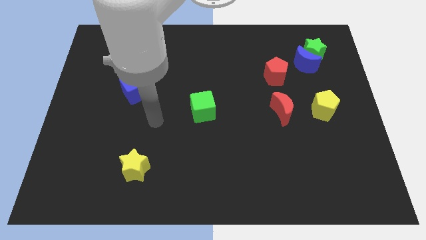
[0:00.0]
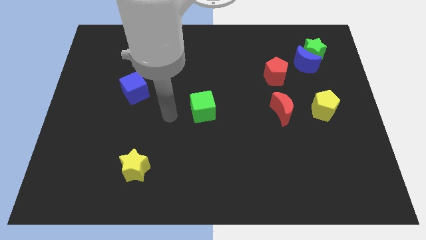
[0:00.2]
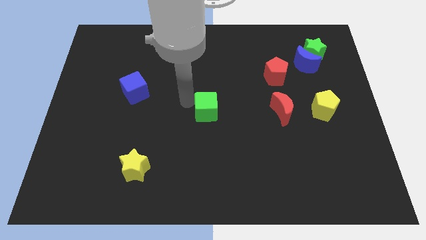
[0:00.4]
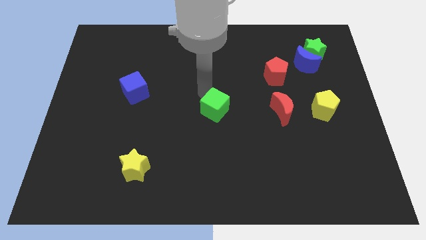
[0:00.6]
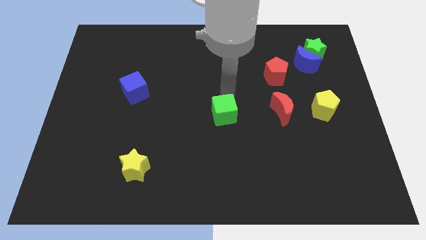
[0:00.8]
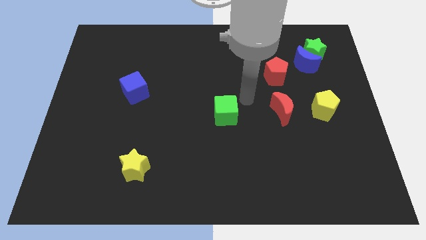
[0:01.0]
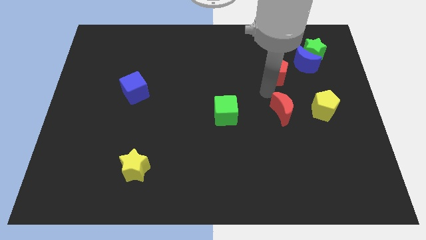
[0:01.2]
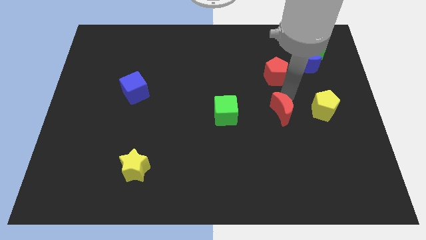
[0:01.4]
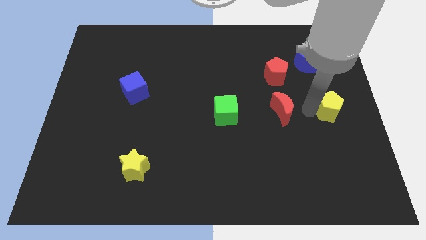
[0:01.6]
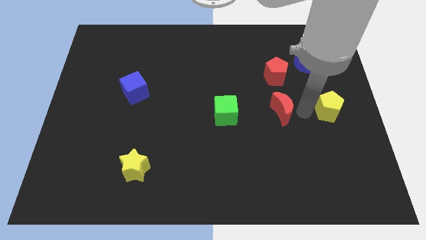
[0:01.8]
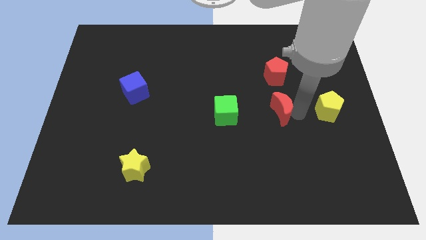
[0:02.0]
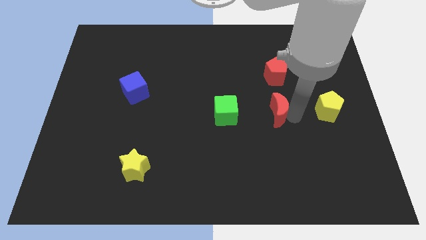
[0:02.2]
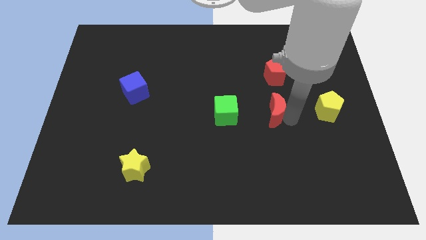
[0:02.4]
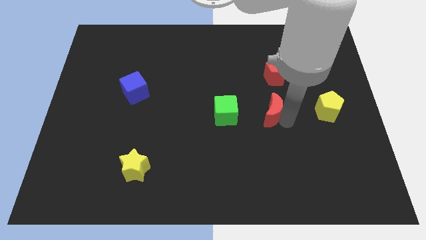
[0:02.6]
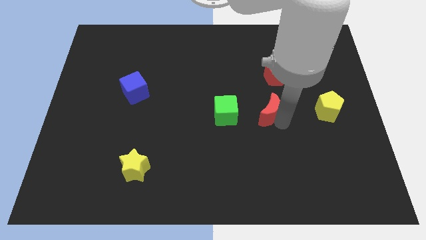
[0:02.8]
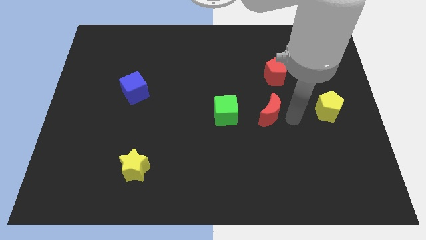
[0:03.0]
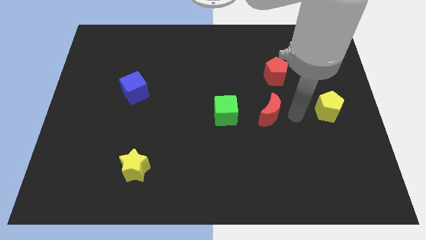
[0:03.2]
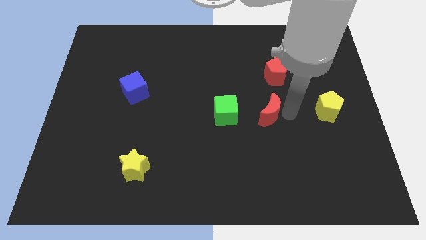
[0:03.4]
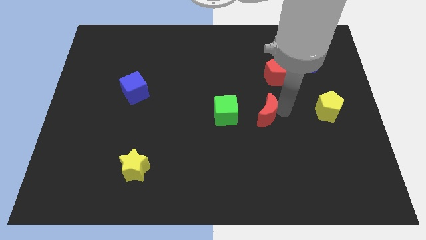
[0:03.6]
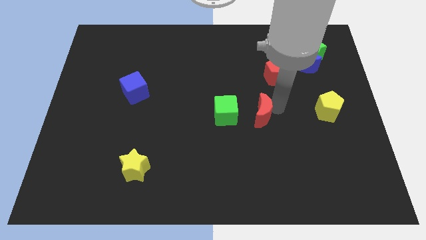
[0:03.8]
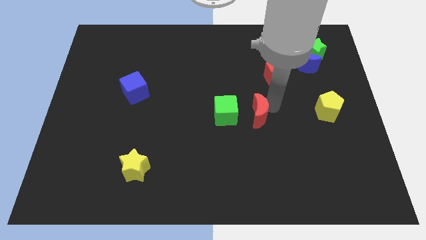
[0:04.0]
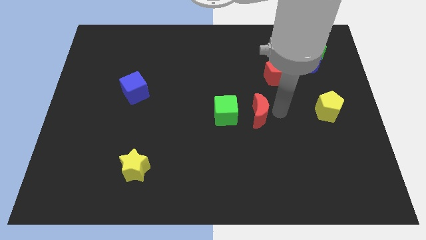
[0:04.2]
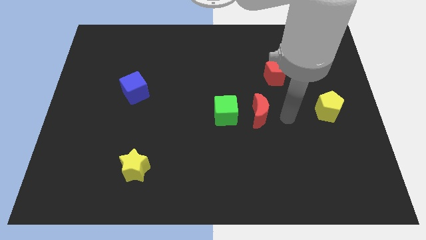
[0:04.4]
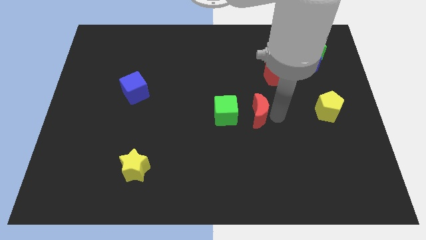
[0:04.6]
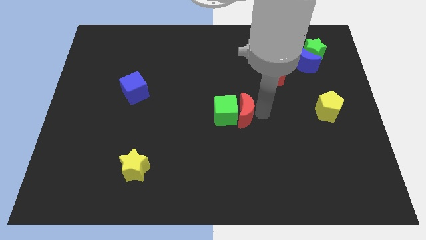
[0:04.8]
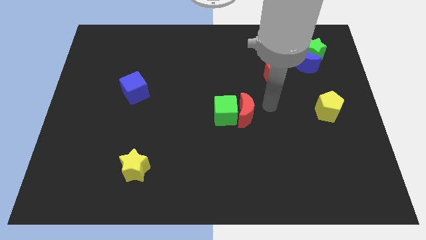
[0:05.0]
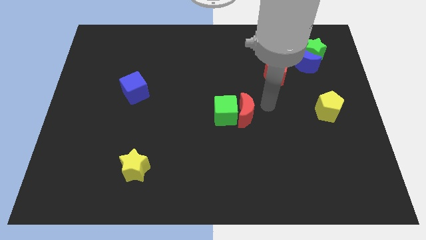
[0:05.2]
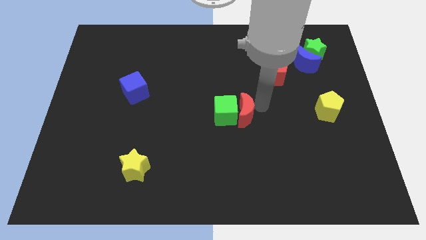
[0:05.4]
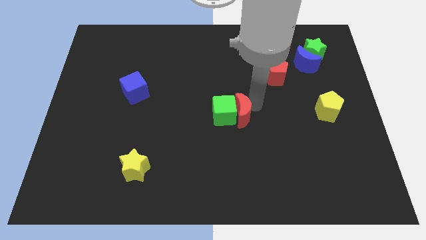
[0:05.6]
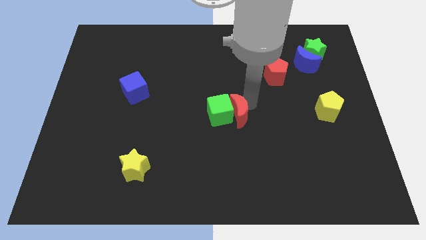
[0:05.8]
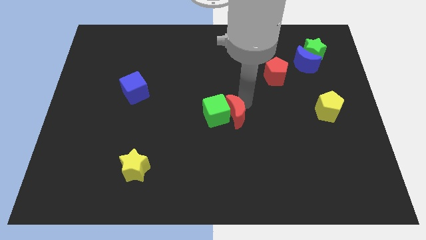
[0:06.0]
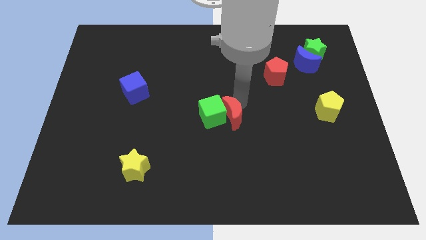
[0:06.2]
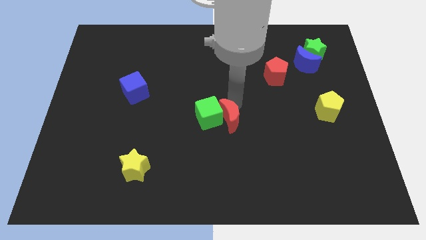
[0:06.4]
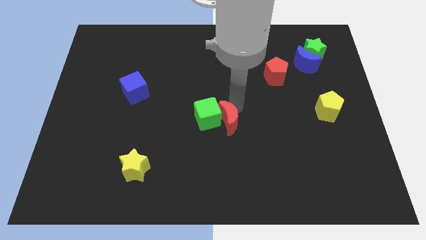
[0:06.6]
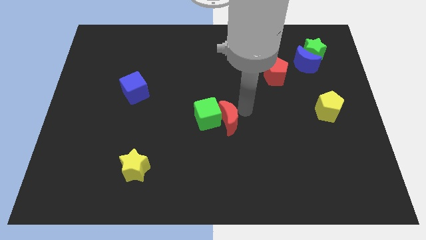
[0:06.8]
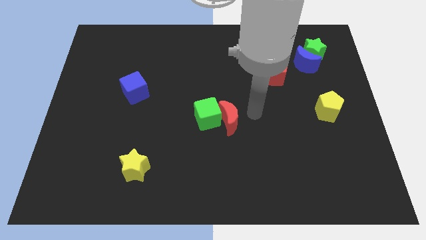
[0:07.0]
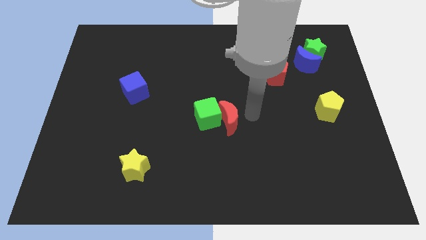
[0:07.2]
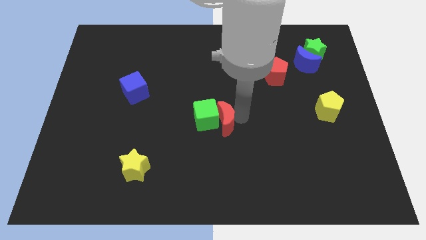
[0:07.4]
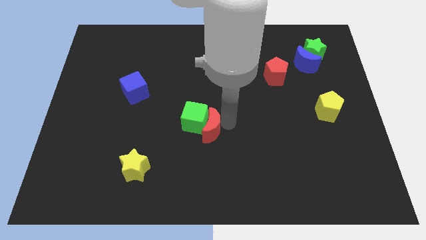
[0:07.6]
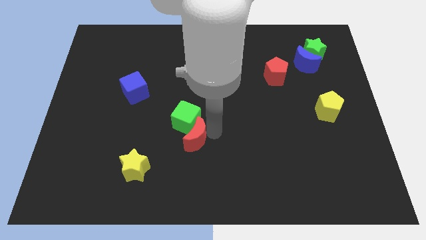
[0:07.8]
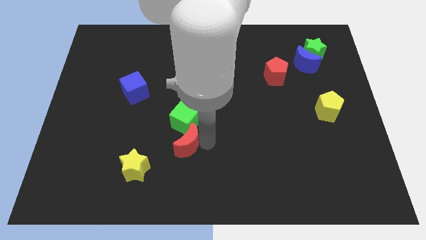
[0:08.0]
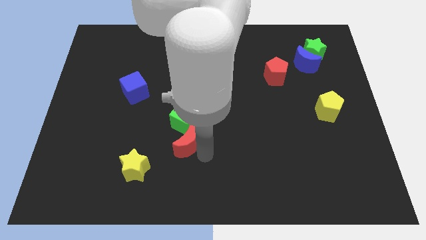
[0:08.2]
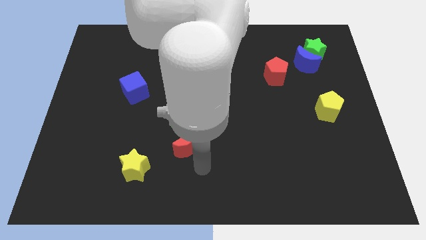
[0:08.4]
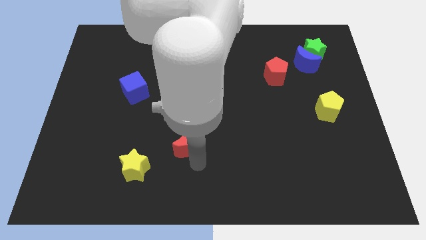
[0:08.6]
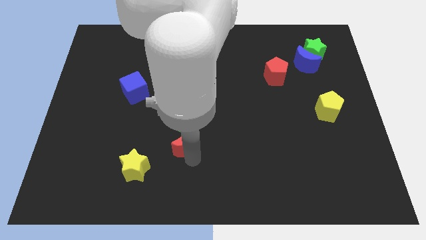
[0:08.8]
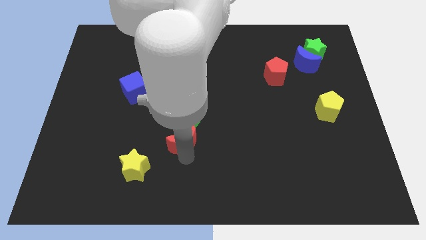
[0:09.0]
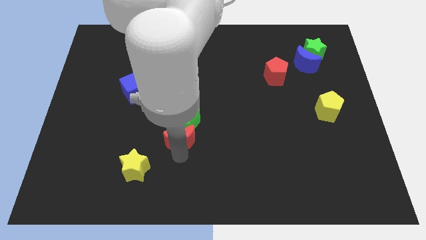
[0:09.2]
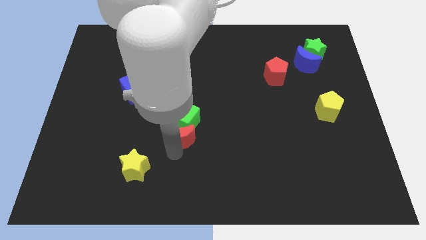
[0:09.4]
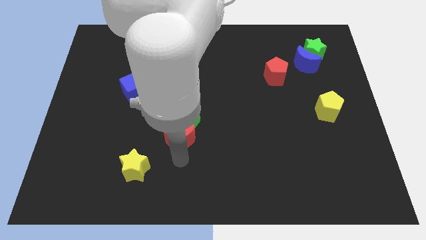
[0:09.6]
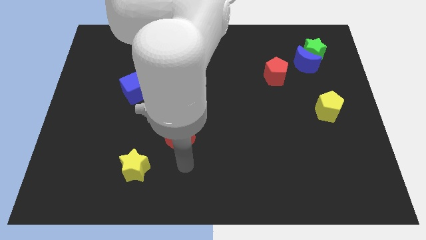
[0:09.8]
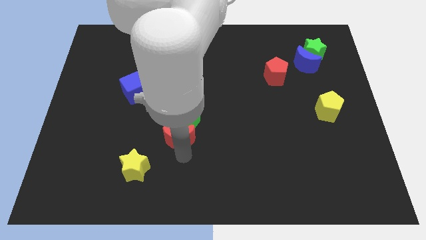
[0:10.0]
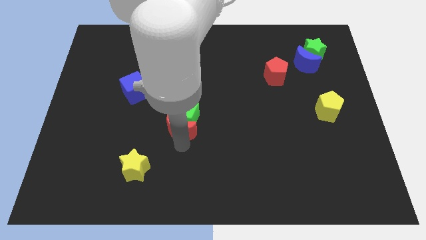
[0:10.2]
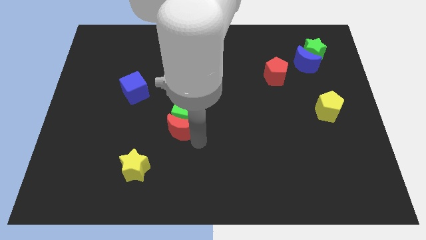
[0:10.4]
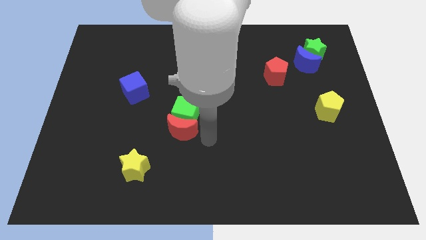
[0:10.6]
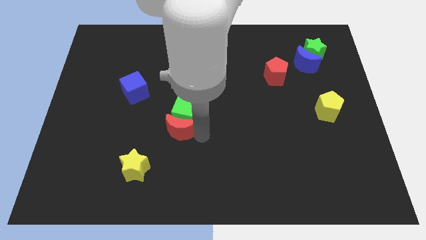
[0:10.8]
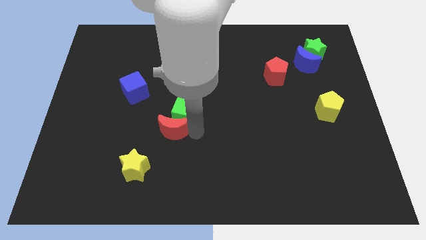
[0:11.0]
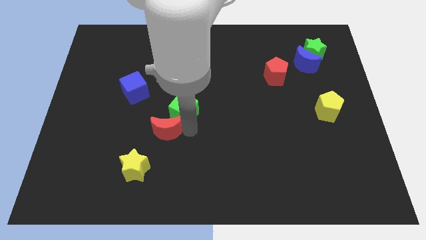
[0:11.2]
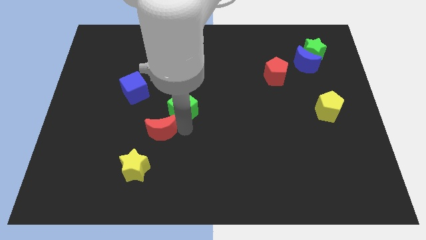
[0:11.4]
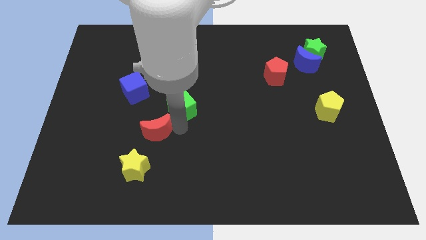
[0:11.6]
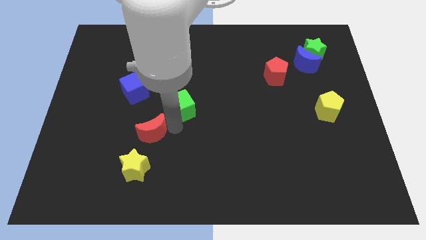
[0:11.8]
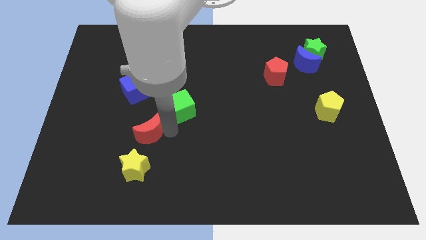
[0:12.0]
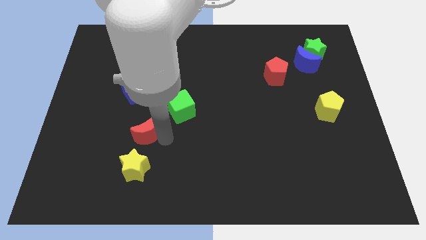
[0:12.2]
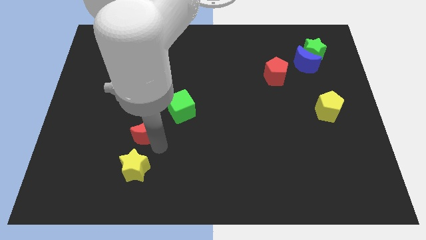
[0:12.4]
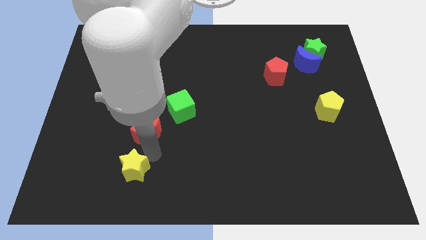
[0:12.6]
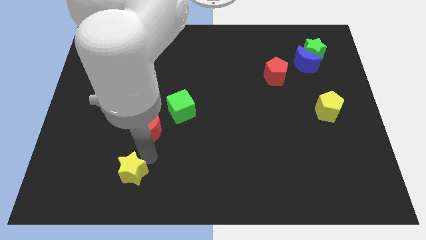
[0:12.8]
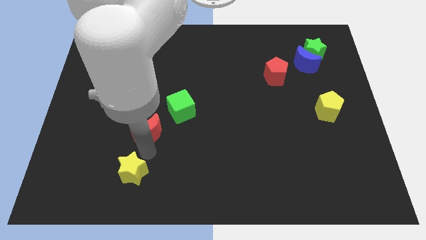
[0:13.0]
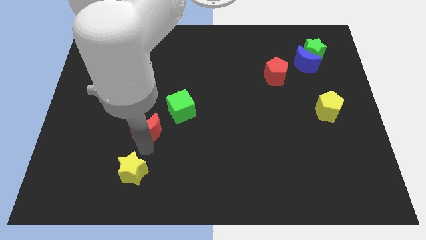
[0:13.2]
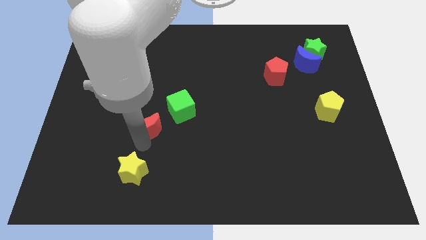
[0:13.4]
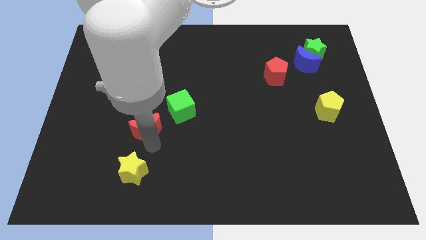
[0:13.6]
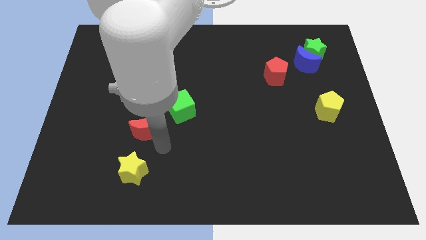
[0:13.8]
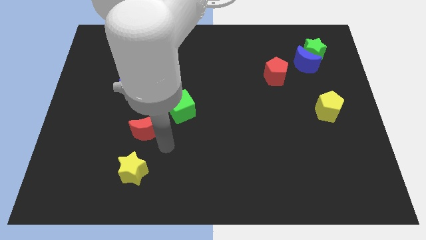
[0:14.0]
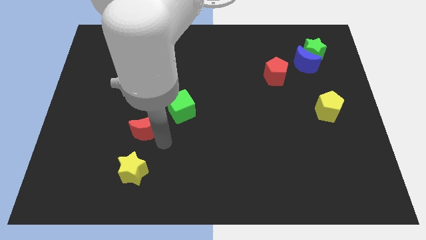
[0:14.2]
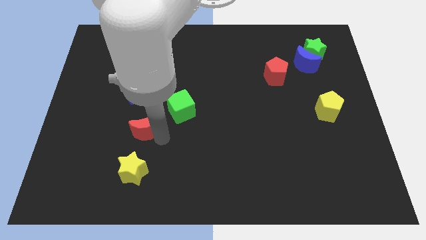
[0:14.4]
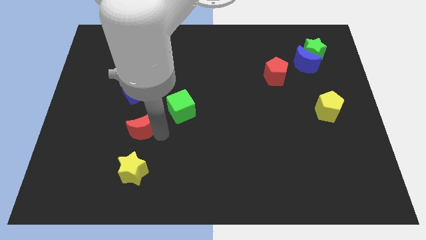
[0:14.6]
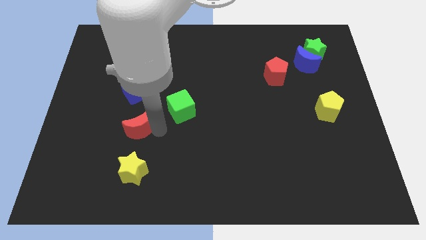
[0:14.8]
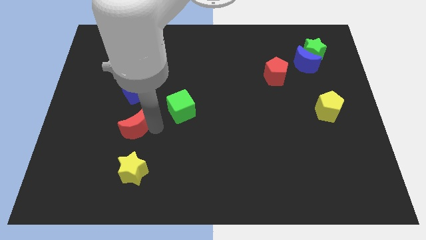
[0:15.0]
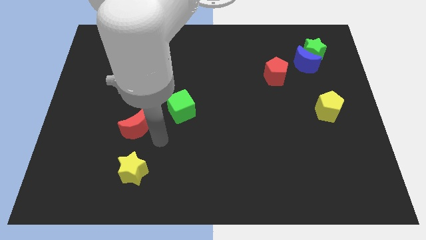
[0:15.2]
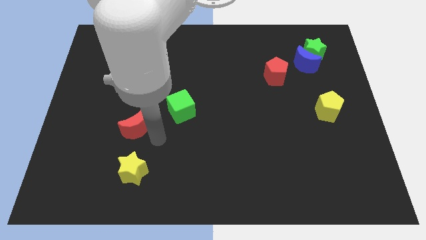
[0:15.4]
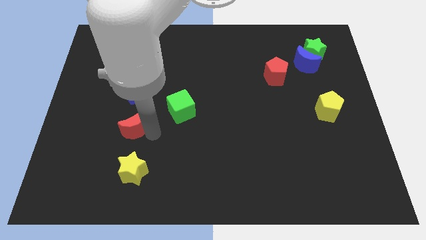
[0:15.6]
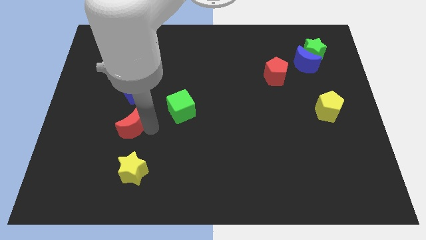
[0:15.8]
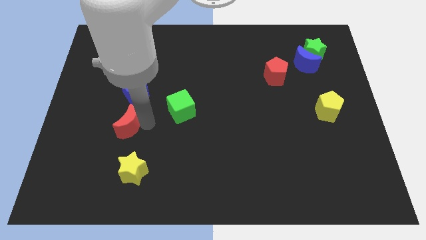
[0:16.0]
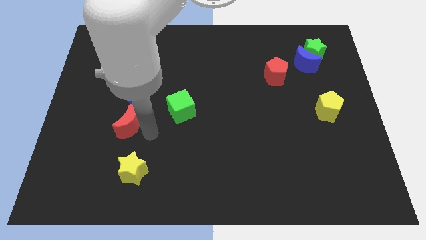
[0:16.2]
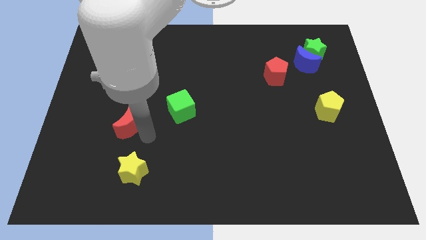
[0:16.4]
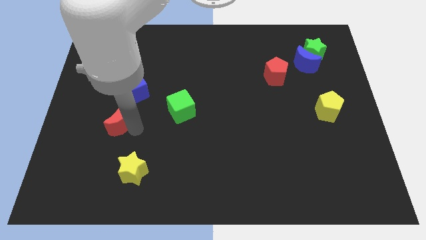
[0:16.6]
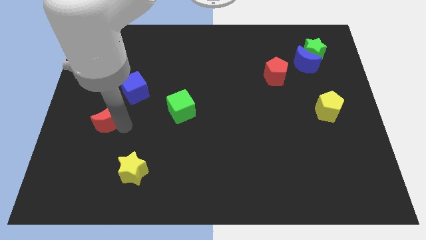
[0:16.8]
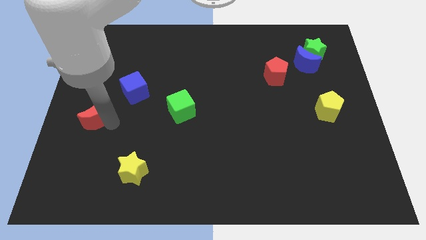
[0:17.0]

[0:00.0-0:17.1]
push the red moon to the left side of the board
